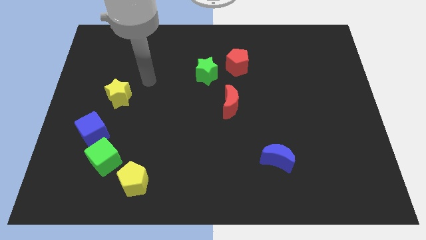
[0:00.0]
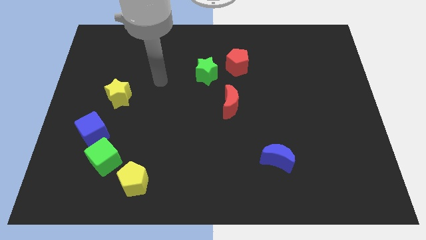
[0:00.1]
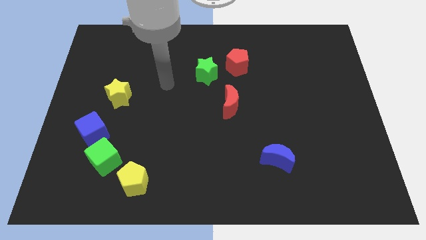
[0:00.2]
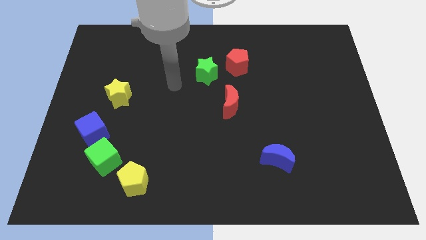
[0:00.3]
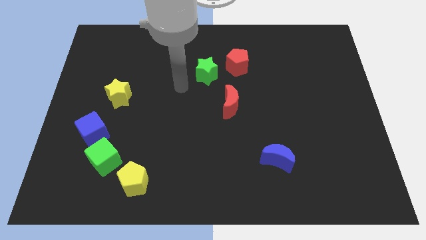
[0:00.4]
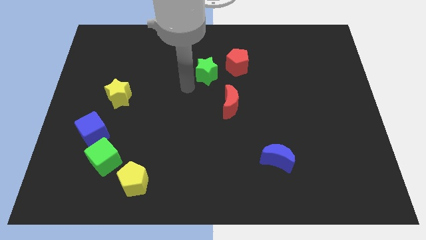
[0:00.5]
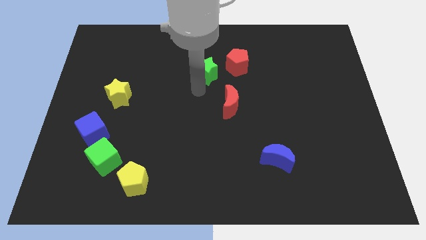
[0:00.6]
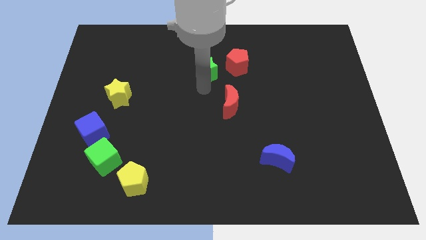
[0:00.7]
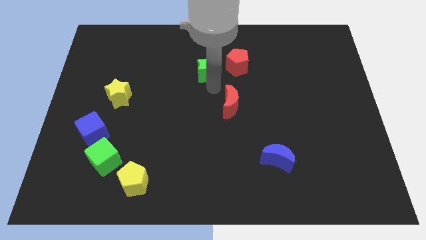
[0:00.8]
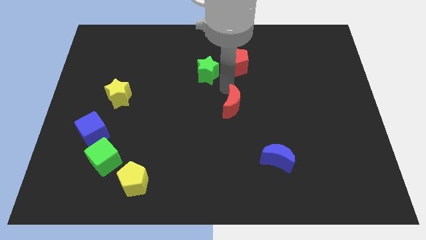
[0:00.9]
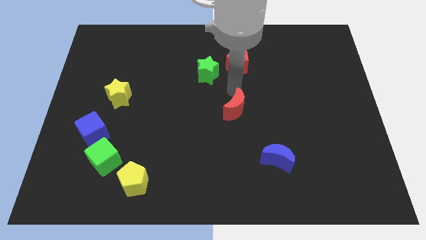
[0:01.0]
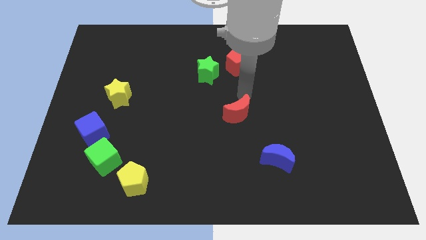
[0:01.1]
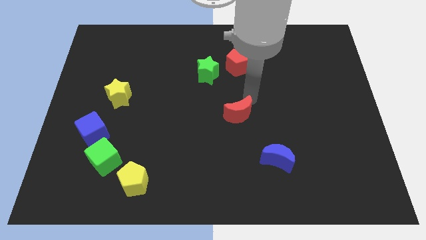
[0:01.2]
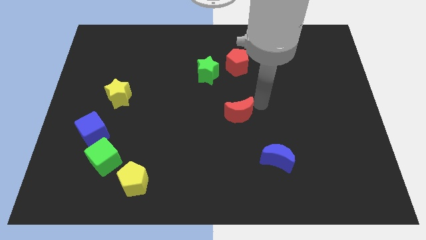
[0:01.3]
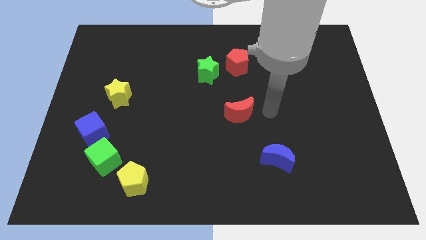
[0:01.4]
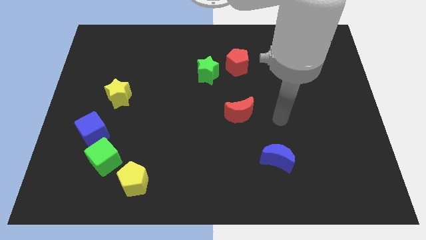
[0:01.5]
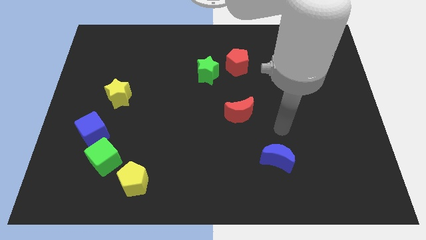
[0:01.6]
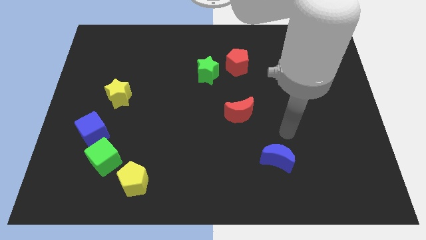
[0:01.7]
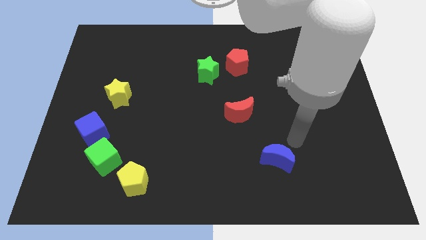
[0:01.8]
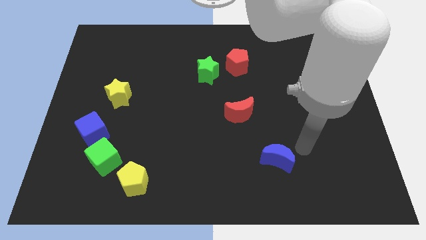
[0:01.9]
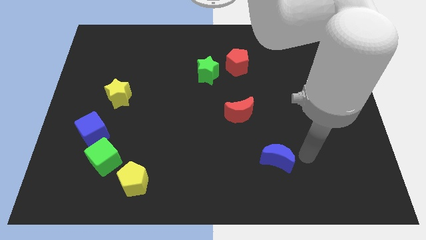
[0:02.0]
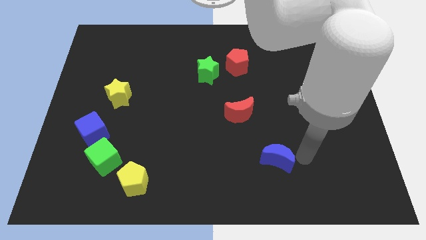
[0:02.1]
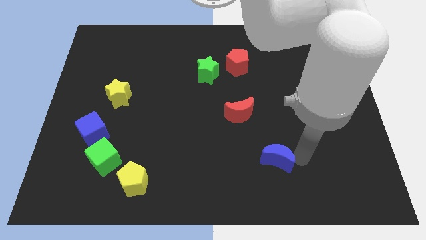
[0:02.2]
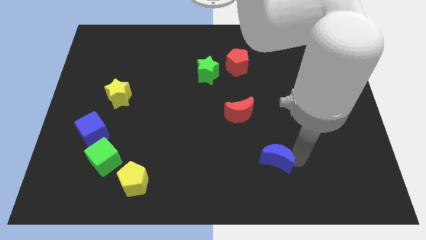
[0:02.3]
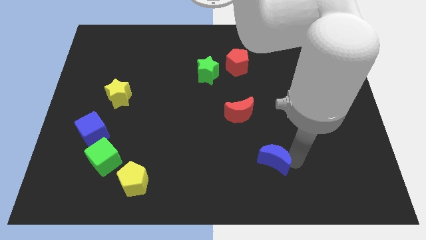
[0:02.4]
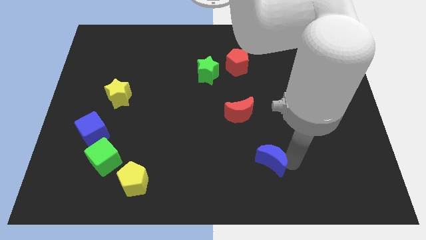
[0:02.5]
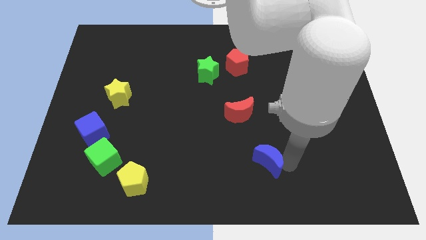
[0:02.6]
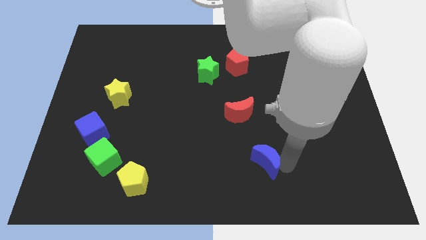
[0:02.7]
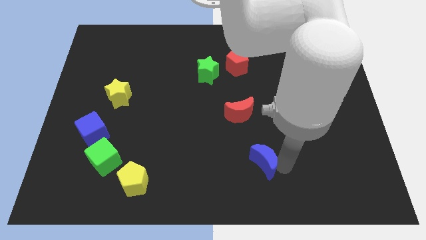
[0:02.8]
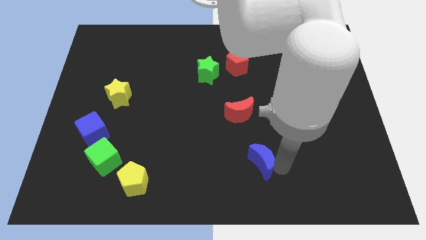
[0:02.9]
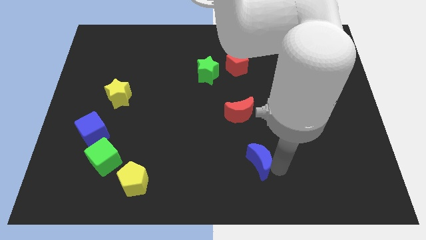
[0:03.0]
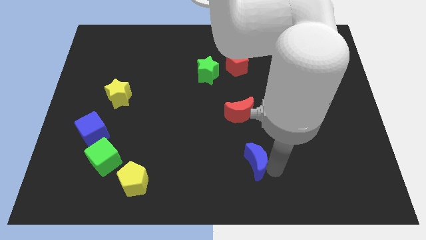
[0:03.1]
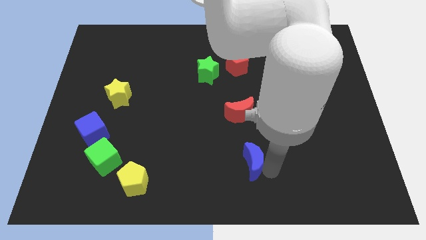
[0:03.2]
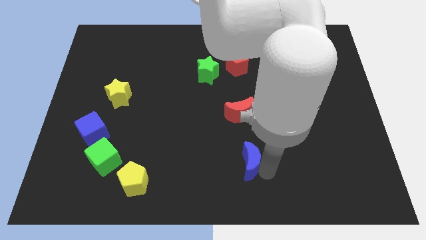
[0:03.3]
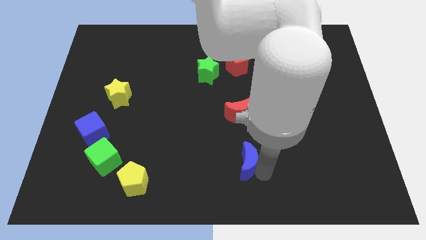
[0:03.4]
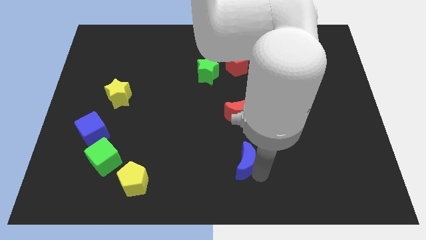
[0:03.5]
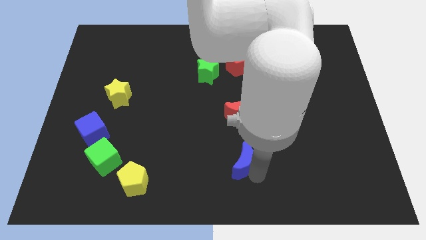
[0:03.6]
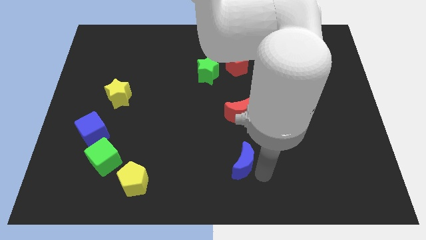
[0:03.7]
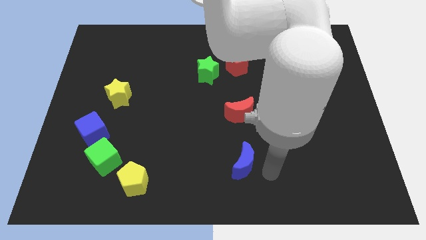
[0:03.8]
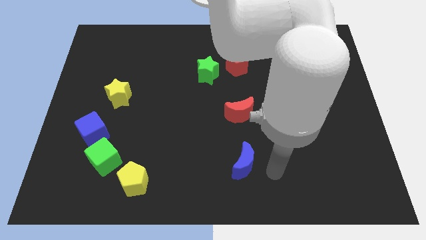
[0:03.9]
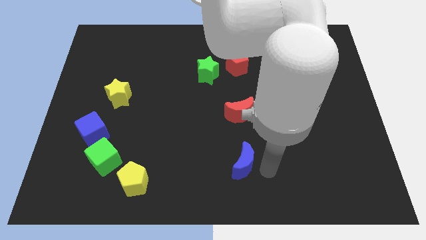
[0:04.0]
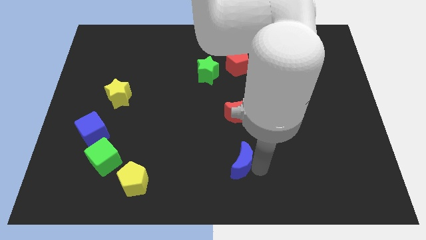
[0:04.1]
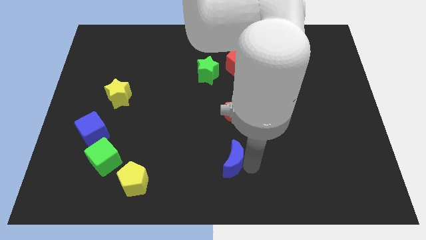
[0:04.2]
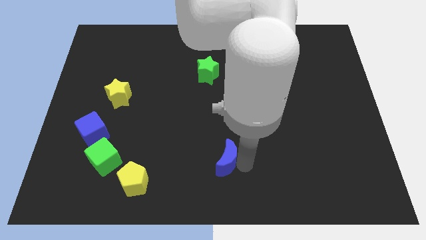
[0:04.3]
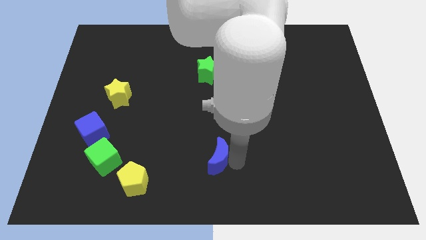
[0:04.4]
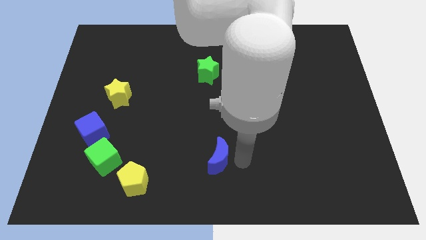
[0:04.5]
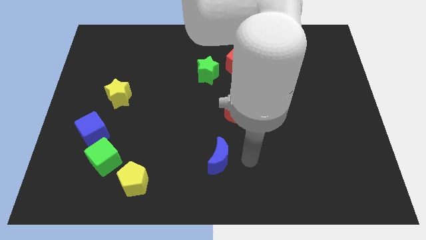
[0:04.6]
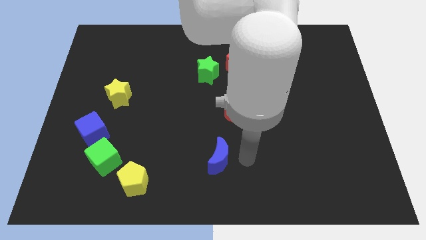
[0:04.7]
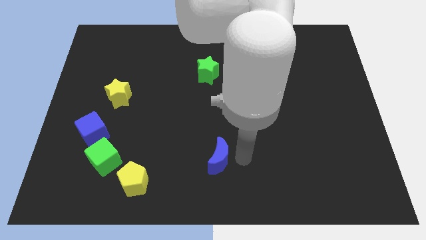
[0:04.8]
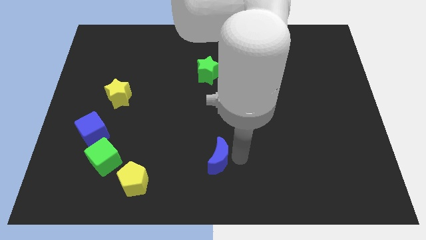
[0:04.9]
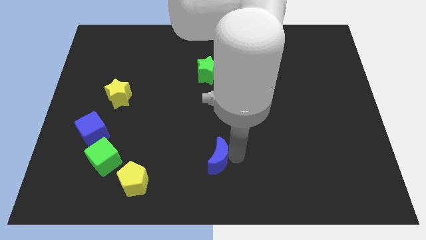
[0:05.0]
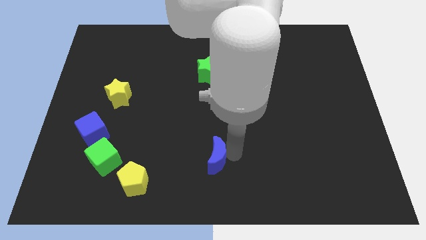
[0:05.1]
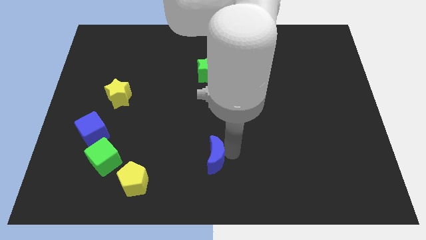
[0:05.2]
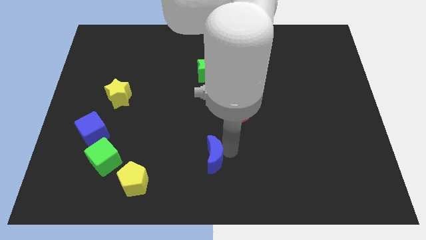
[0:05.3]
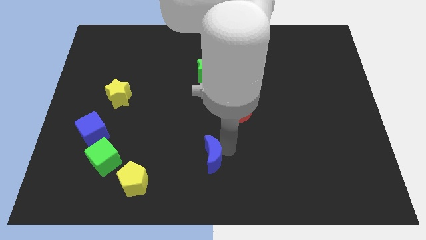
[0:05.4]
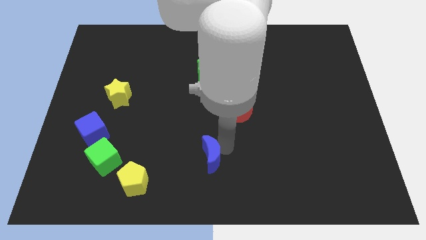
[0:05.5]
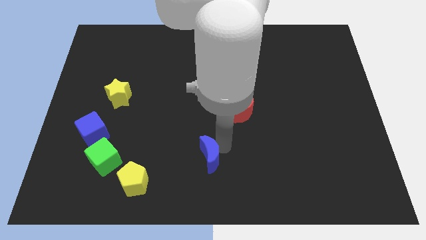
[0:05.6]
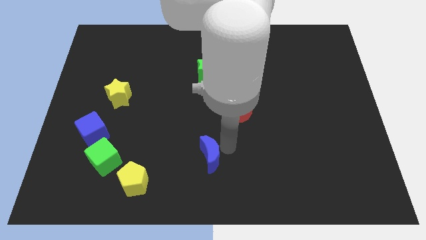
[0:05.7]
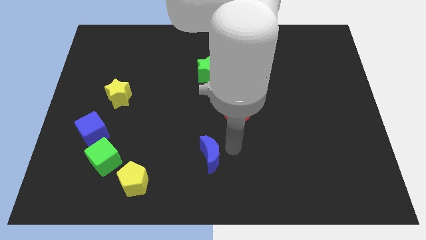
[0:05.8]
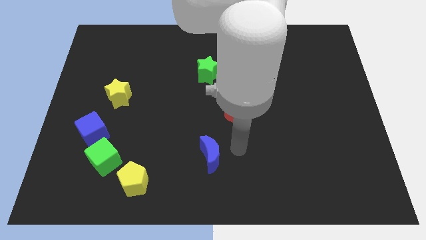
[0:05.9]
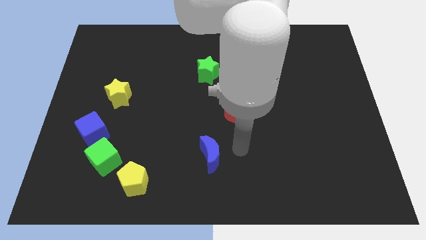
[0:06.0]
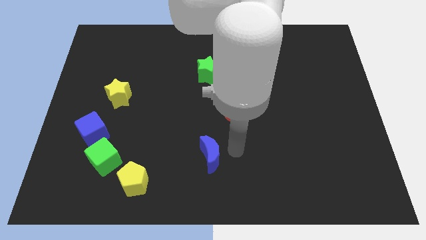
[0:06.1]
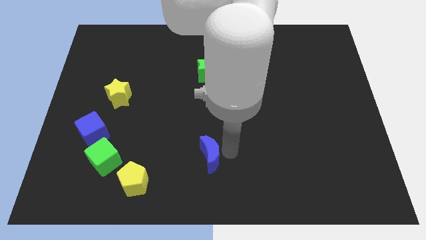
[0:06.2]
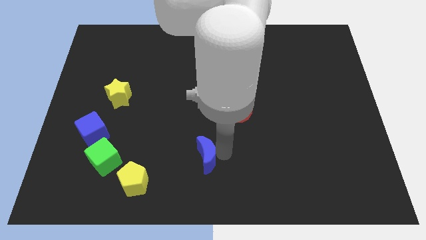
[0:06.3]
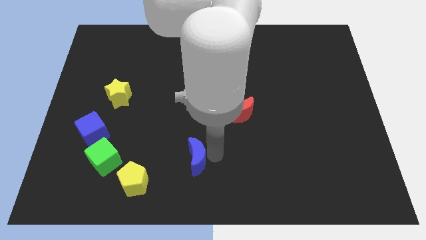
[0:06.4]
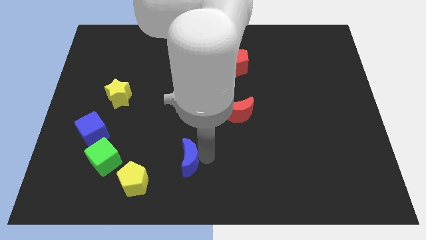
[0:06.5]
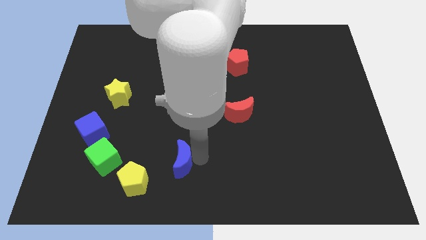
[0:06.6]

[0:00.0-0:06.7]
slide the blue moon to the left

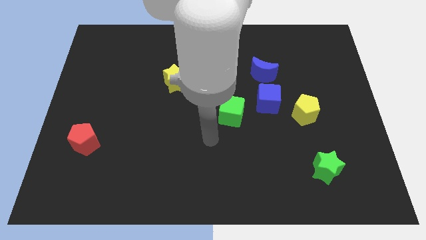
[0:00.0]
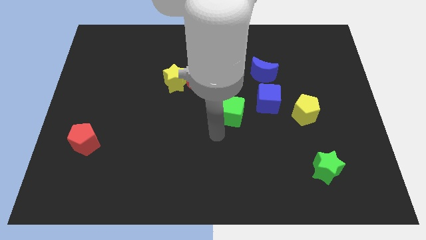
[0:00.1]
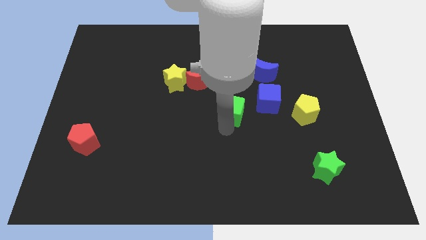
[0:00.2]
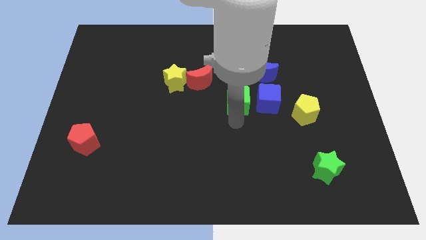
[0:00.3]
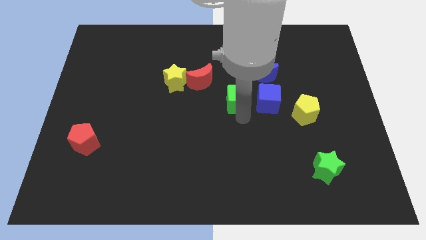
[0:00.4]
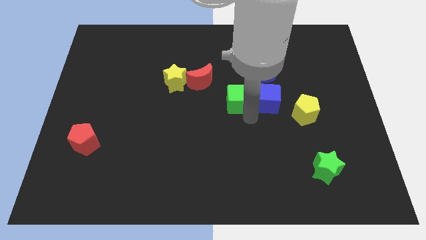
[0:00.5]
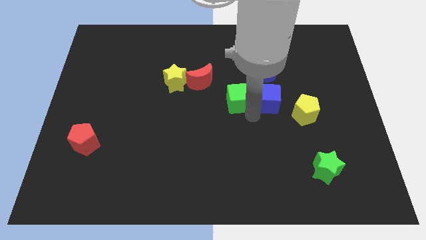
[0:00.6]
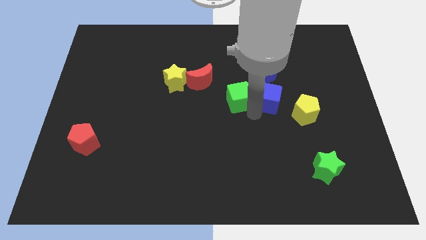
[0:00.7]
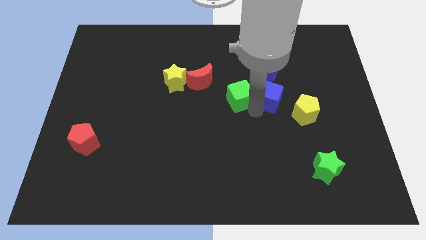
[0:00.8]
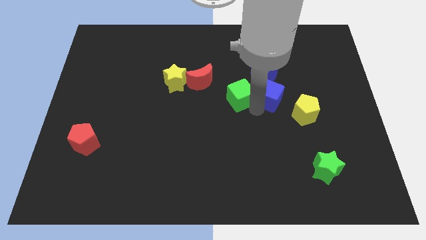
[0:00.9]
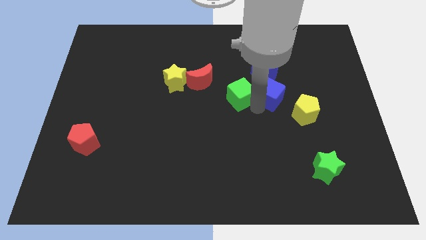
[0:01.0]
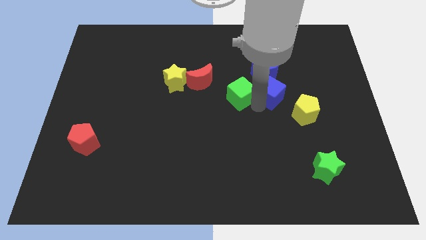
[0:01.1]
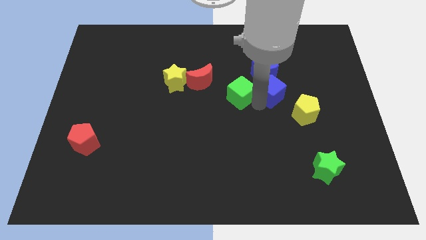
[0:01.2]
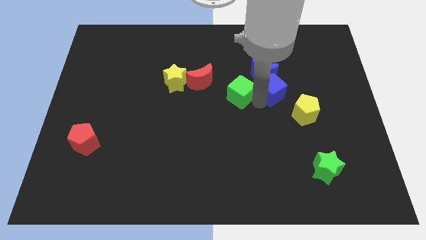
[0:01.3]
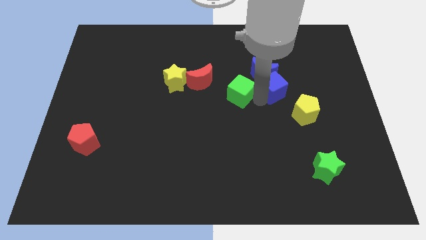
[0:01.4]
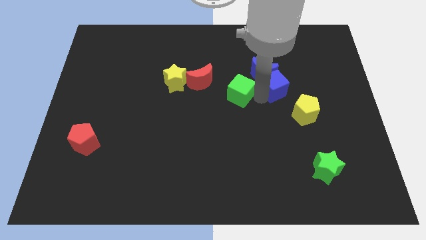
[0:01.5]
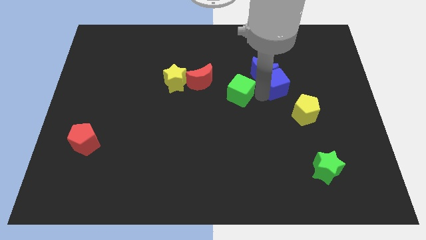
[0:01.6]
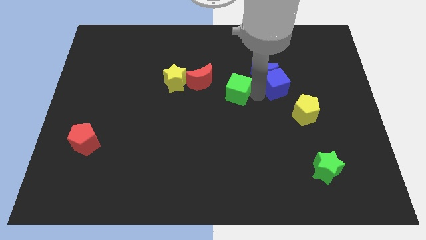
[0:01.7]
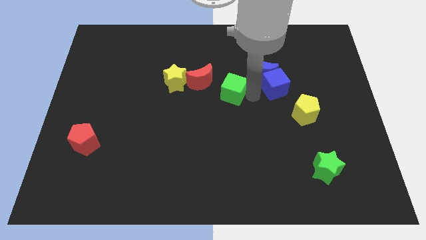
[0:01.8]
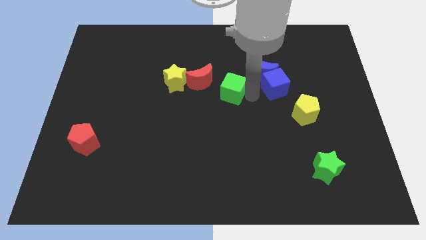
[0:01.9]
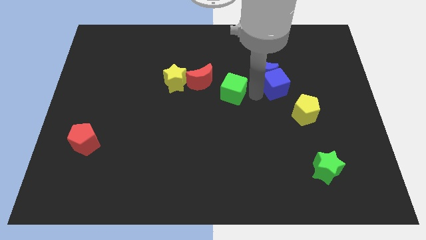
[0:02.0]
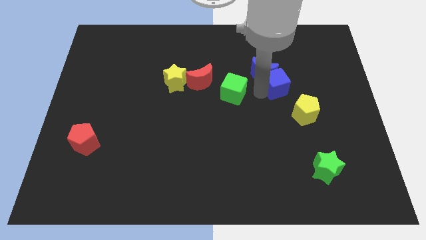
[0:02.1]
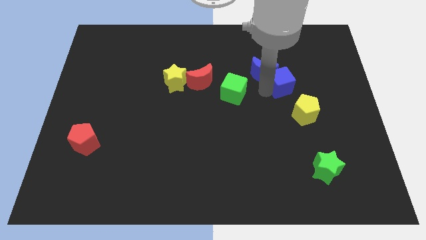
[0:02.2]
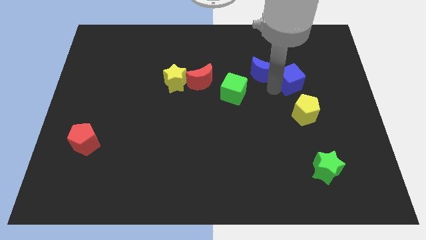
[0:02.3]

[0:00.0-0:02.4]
slide the blue cube slightly upwards and then to the right
